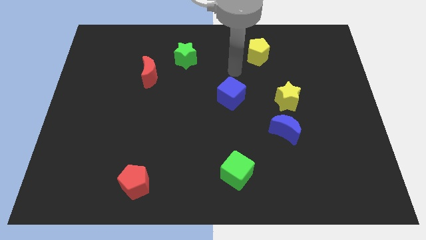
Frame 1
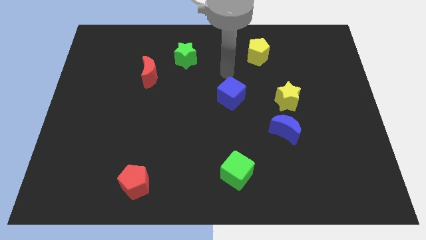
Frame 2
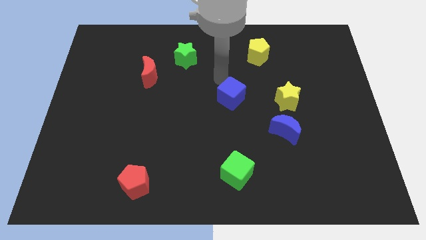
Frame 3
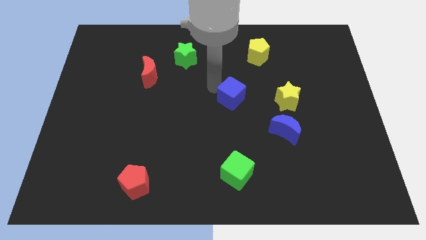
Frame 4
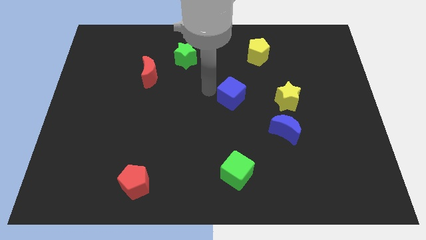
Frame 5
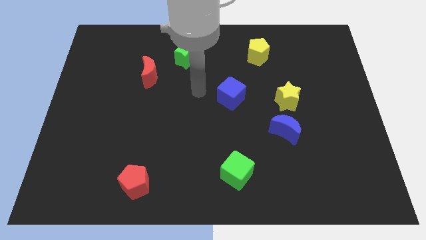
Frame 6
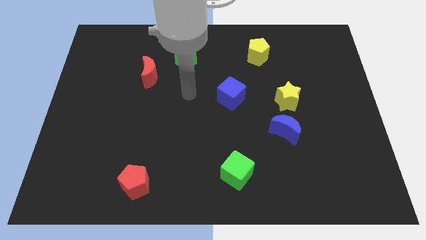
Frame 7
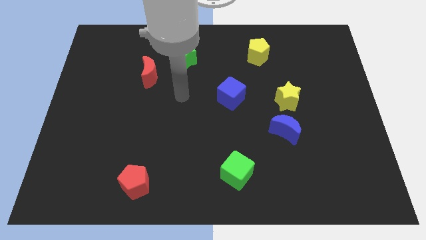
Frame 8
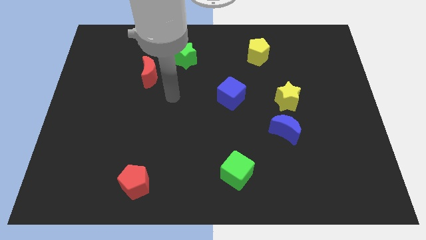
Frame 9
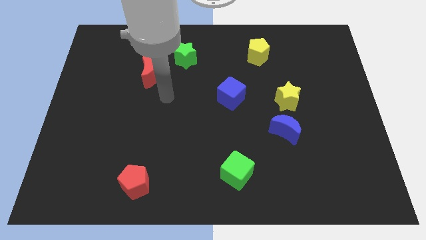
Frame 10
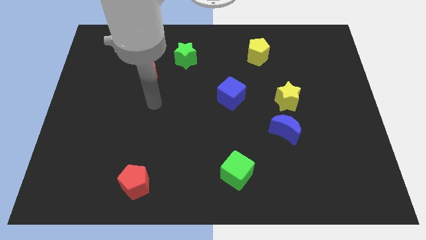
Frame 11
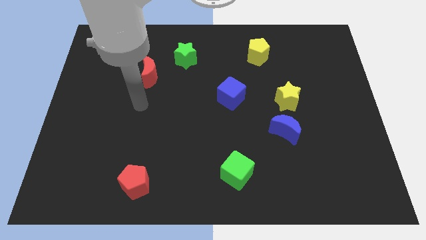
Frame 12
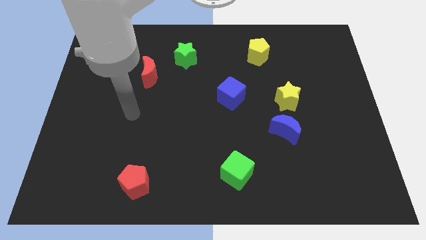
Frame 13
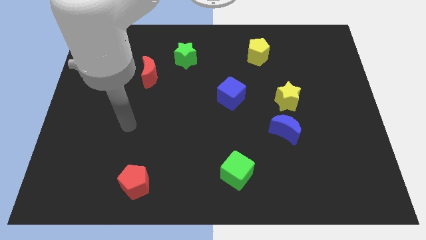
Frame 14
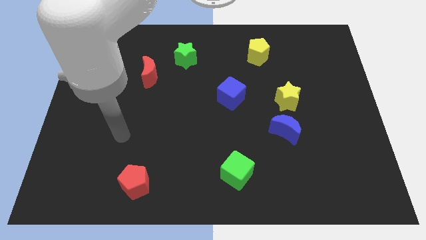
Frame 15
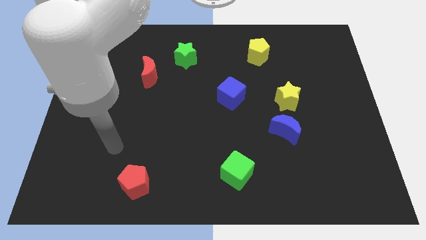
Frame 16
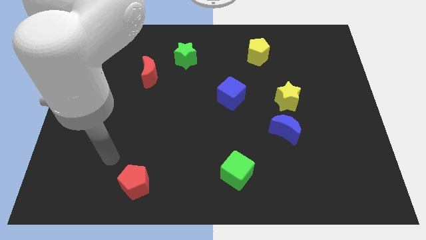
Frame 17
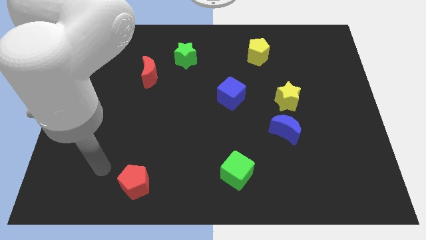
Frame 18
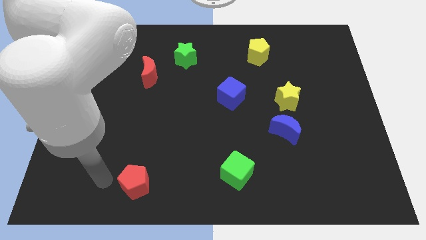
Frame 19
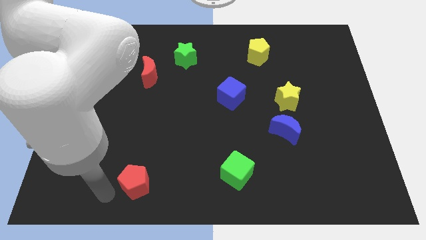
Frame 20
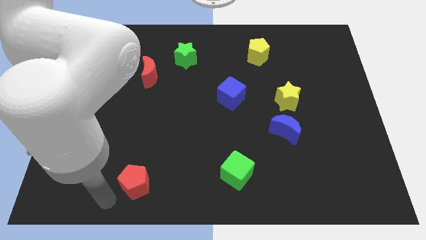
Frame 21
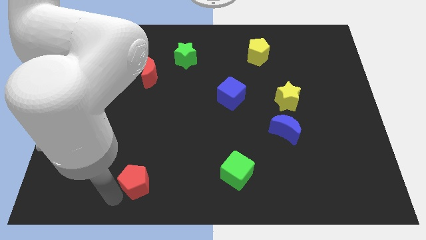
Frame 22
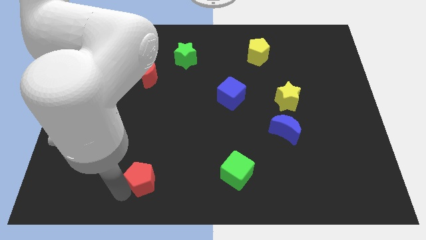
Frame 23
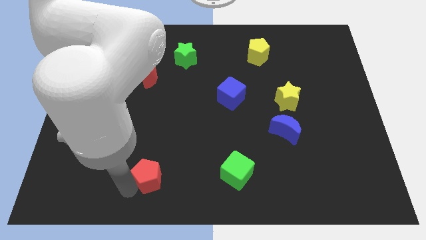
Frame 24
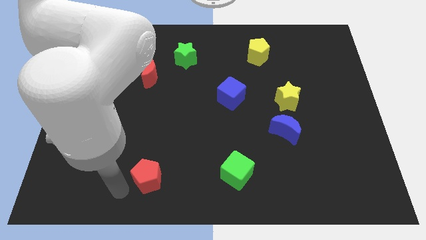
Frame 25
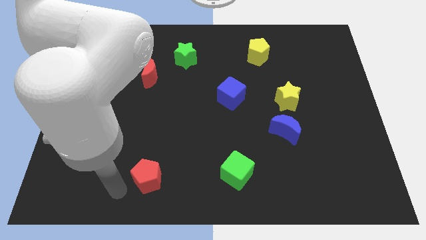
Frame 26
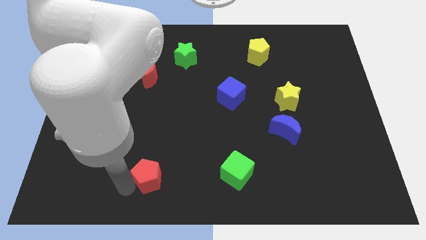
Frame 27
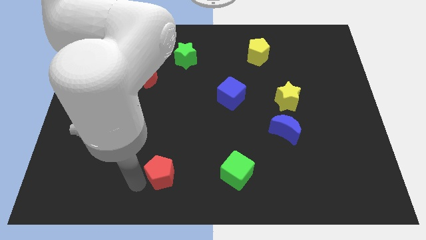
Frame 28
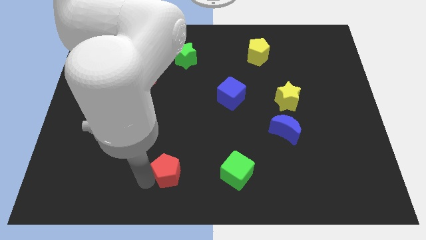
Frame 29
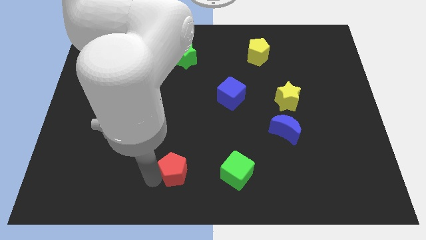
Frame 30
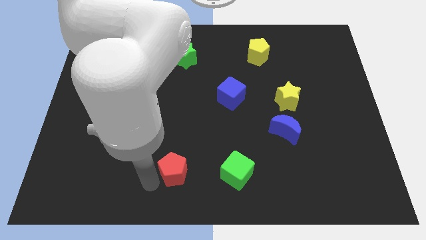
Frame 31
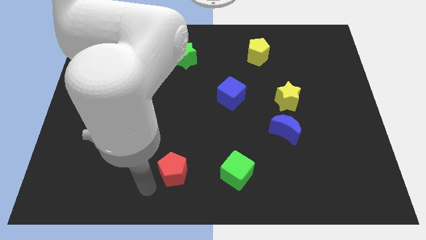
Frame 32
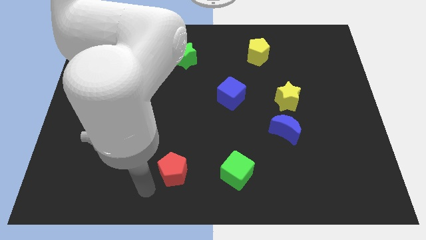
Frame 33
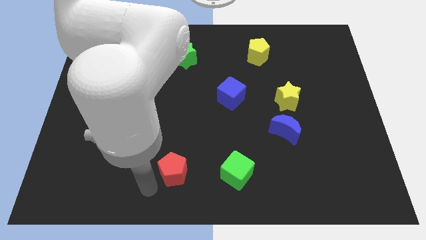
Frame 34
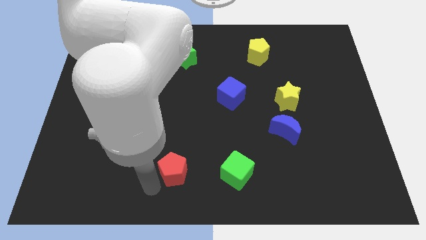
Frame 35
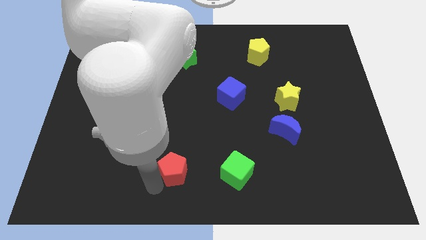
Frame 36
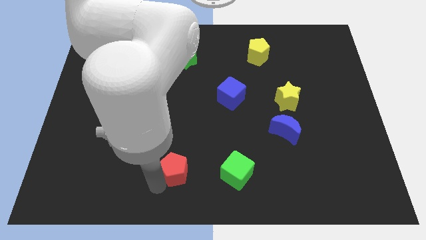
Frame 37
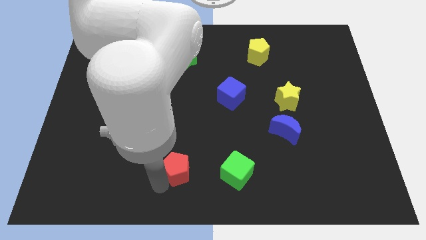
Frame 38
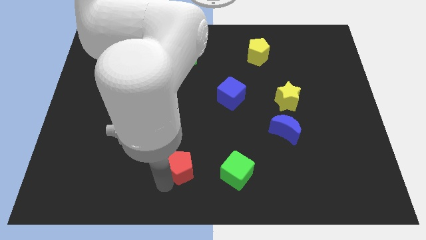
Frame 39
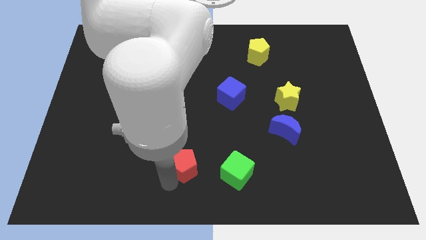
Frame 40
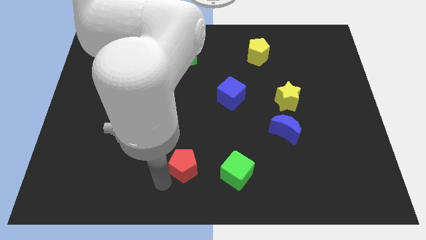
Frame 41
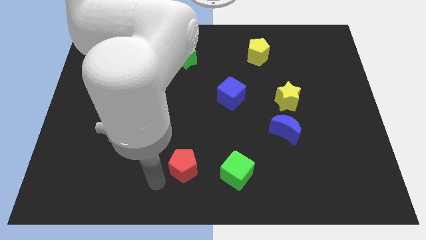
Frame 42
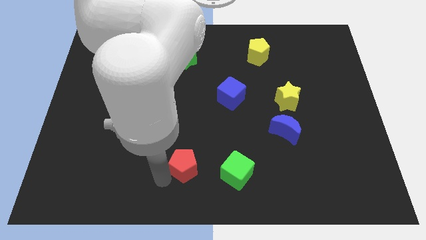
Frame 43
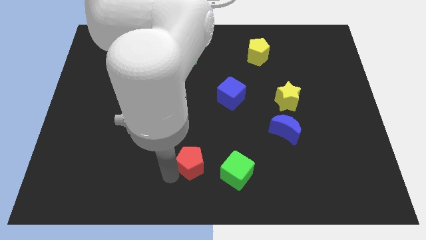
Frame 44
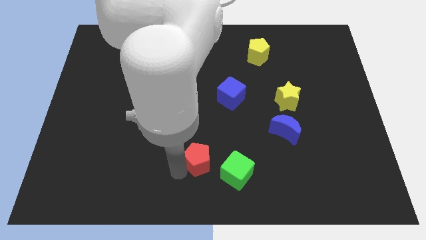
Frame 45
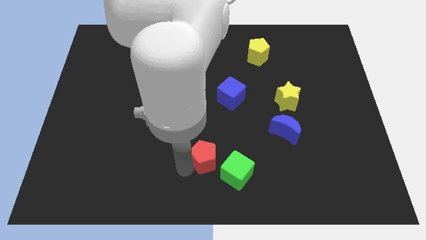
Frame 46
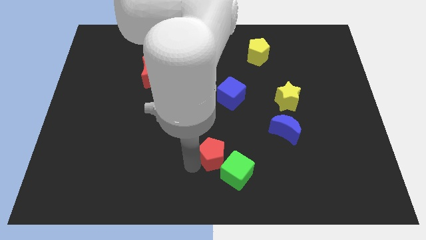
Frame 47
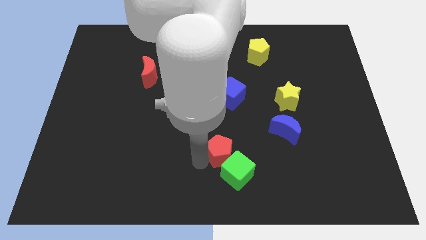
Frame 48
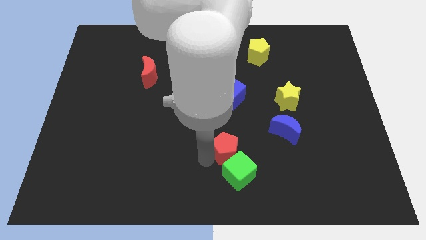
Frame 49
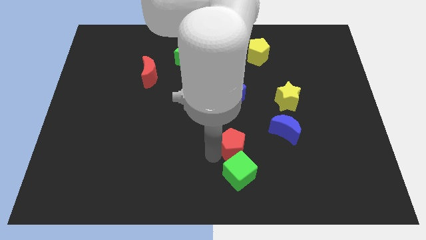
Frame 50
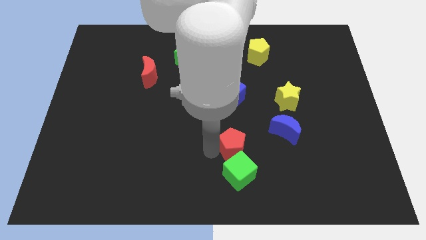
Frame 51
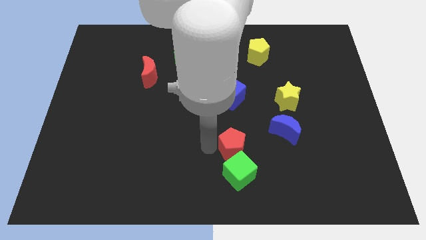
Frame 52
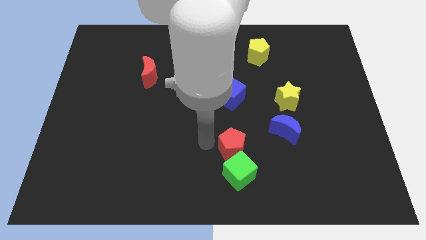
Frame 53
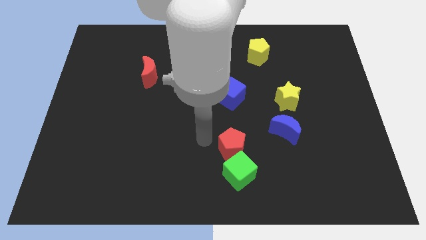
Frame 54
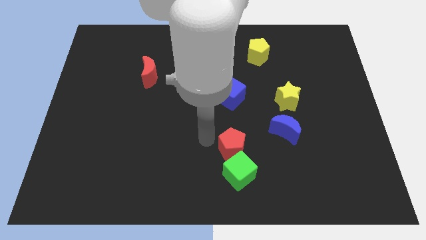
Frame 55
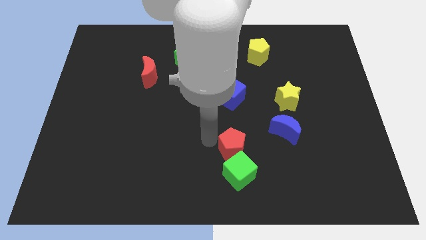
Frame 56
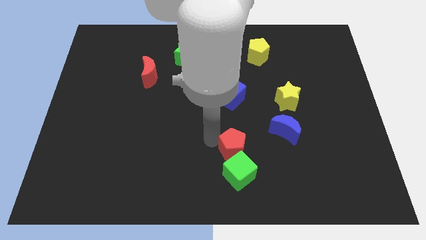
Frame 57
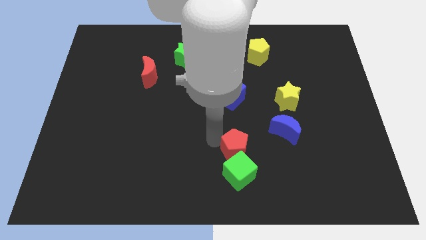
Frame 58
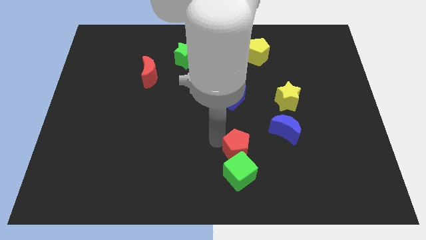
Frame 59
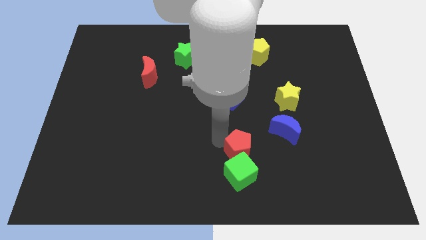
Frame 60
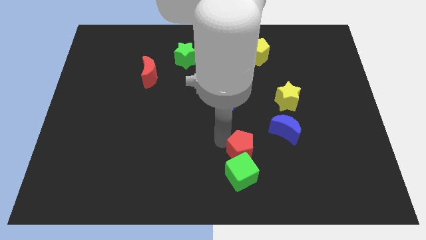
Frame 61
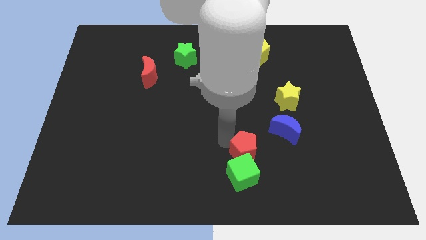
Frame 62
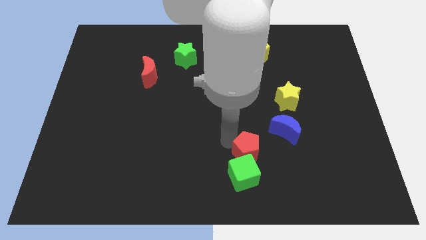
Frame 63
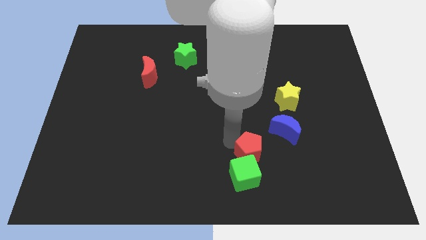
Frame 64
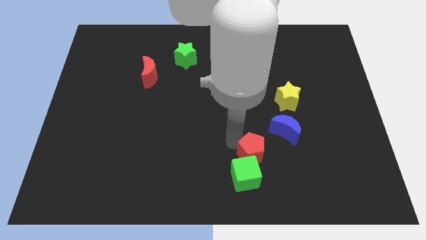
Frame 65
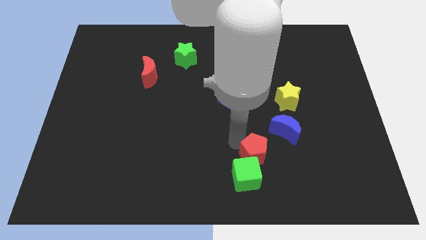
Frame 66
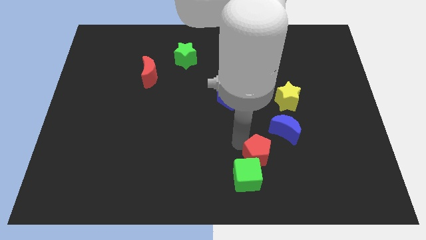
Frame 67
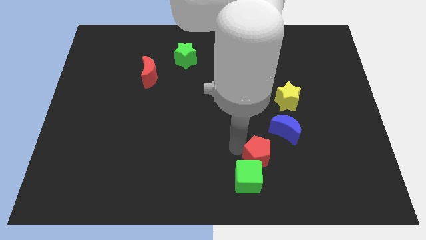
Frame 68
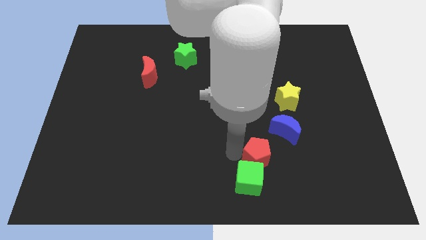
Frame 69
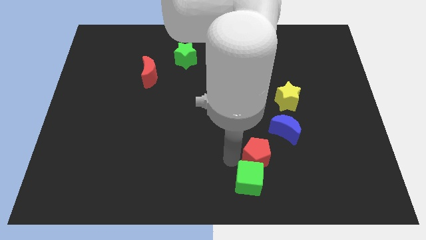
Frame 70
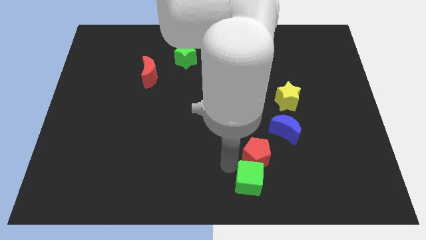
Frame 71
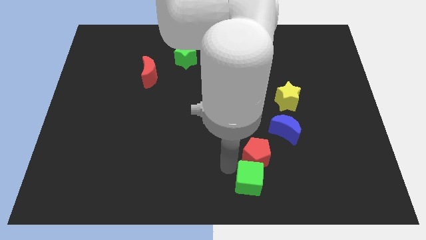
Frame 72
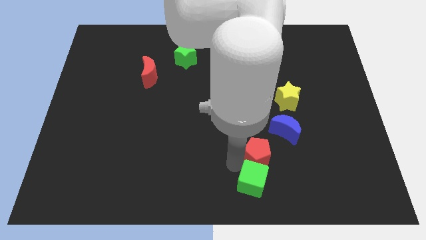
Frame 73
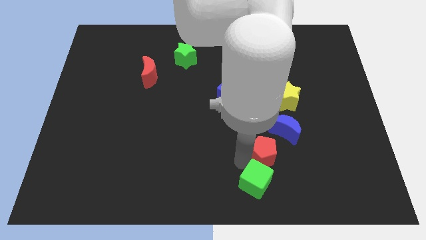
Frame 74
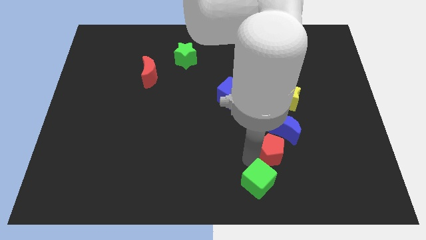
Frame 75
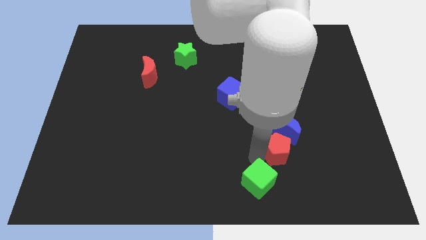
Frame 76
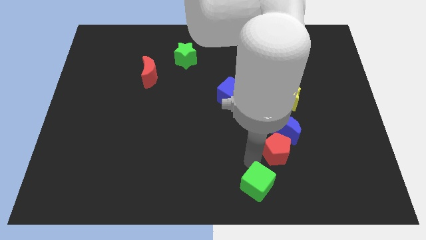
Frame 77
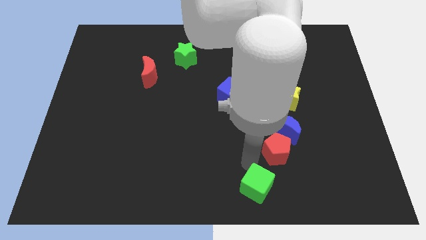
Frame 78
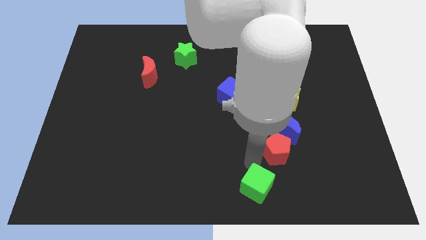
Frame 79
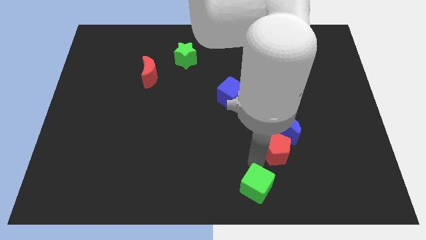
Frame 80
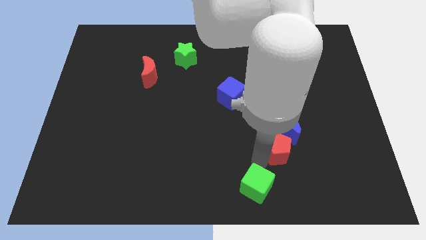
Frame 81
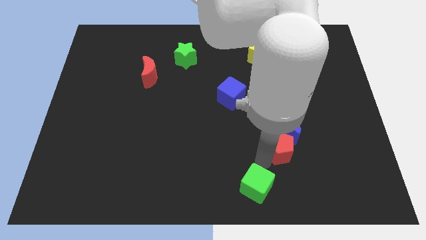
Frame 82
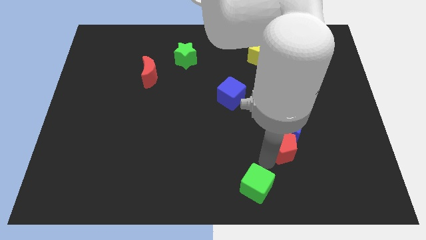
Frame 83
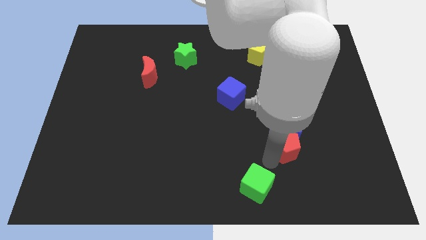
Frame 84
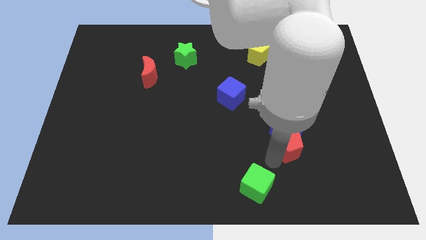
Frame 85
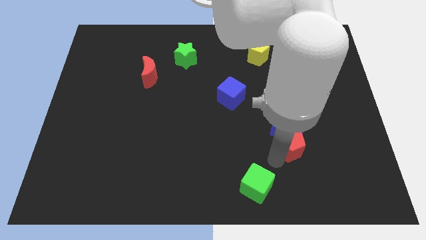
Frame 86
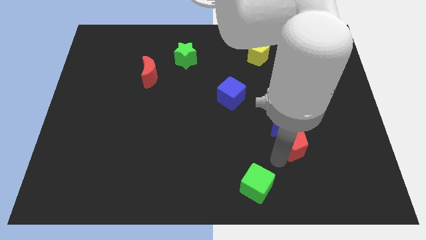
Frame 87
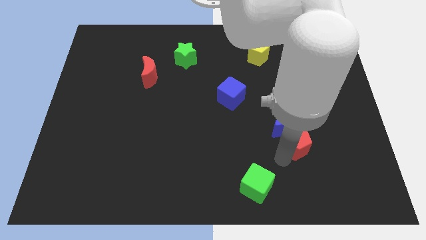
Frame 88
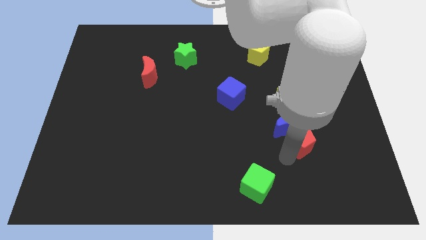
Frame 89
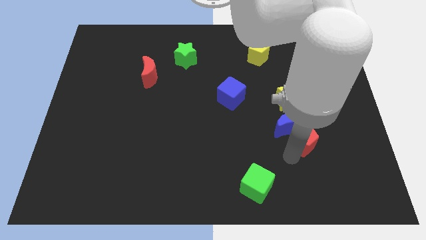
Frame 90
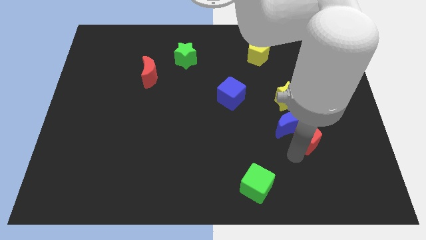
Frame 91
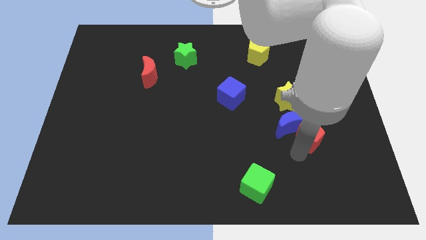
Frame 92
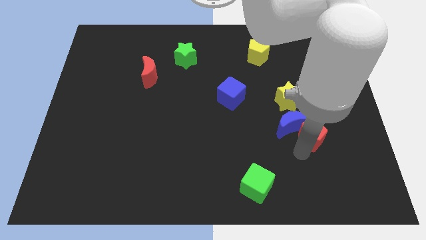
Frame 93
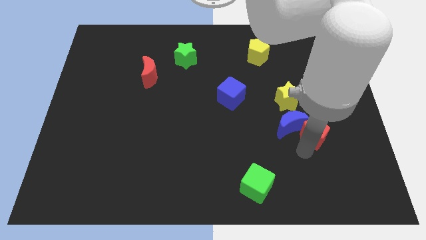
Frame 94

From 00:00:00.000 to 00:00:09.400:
move the red pentagon to the bottom right of the yellow star
